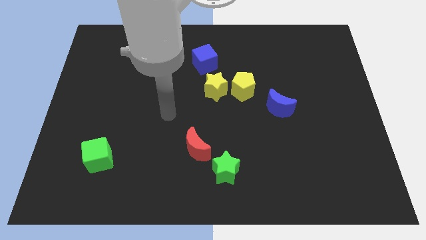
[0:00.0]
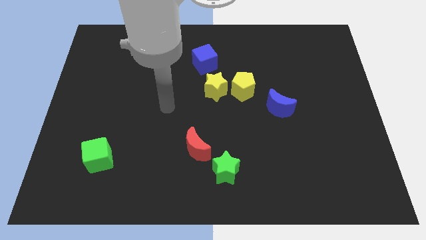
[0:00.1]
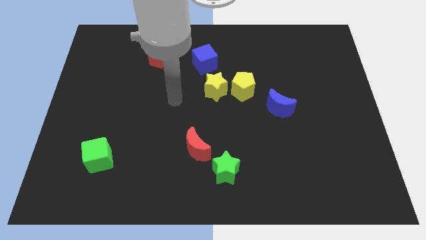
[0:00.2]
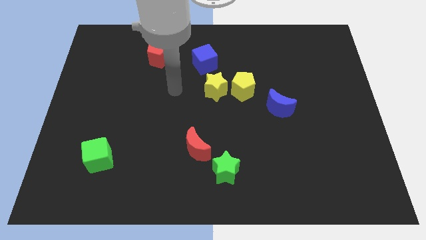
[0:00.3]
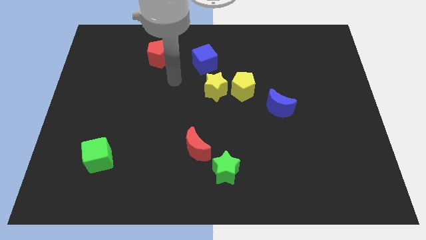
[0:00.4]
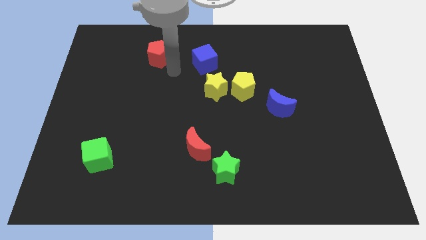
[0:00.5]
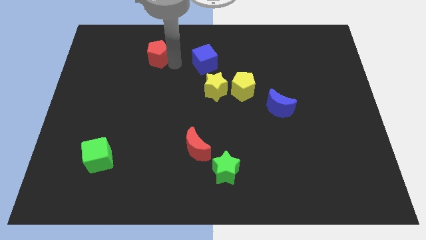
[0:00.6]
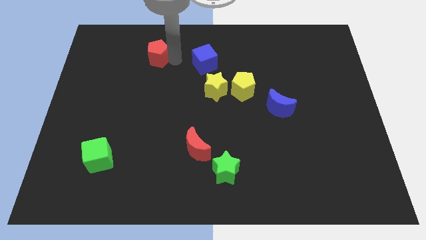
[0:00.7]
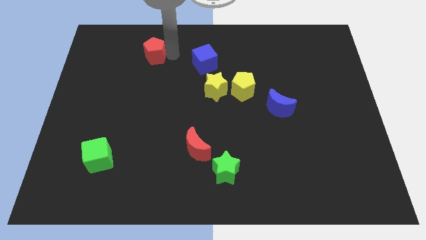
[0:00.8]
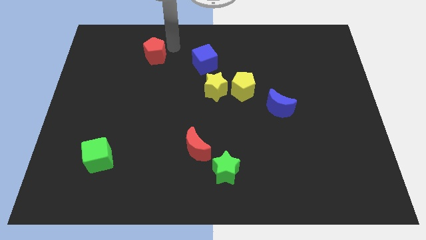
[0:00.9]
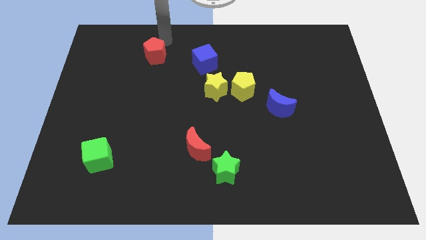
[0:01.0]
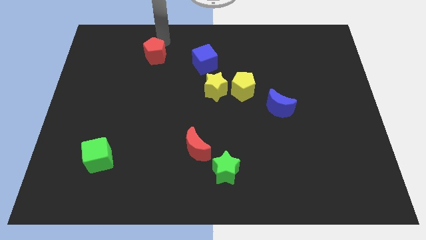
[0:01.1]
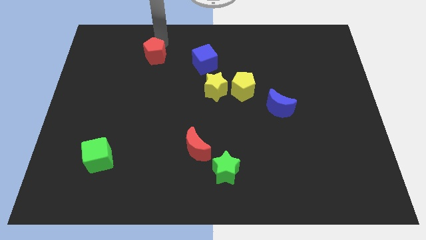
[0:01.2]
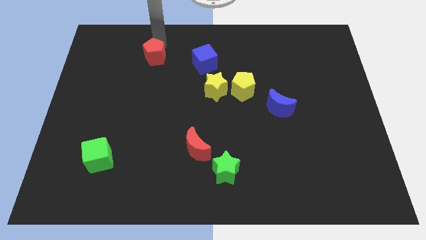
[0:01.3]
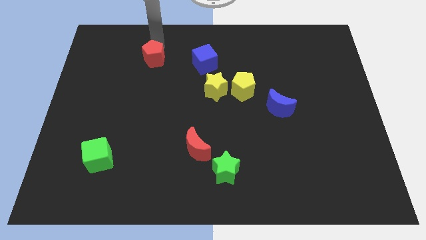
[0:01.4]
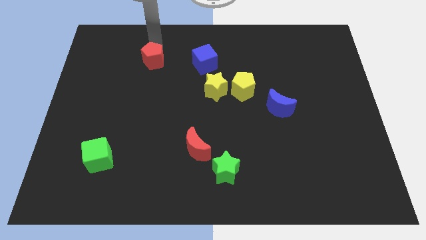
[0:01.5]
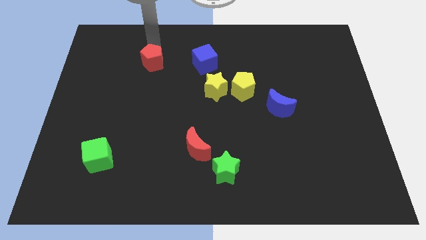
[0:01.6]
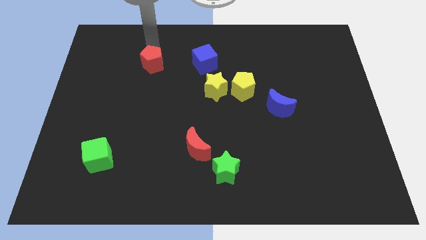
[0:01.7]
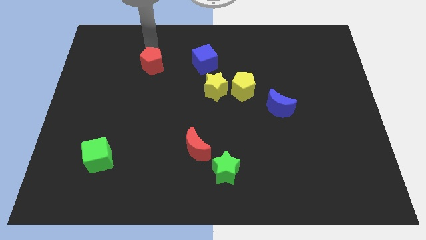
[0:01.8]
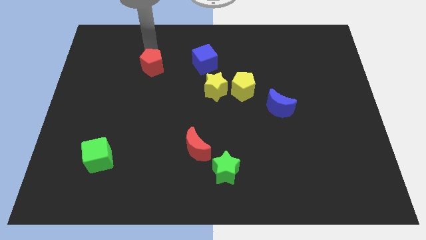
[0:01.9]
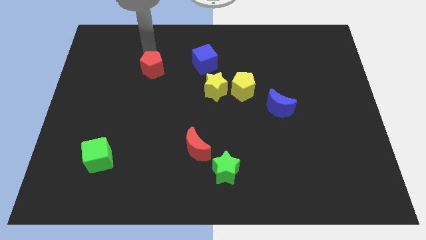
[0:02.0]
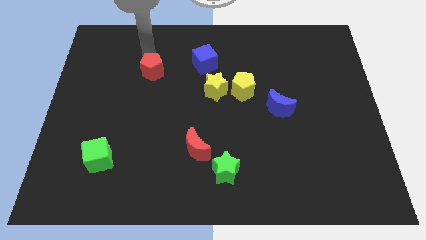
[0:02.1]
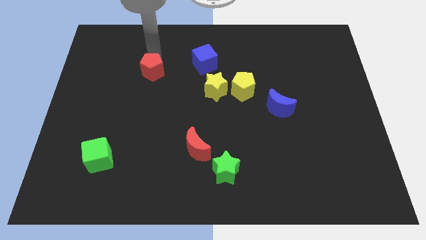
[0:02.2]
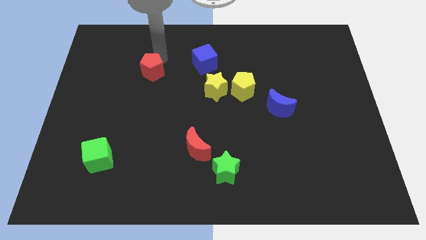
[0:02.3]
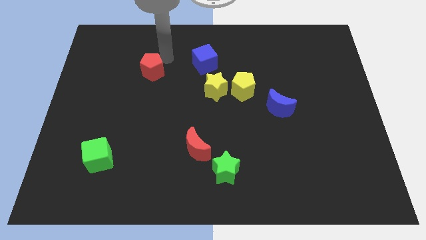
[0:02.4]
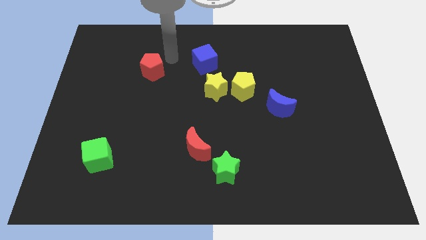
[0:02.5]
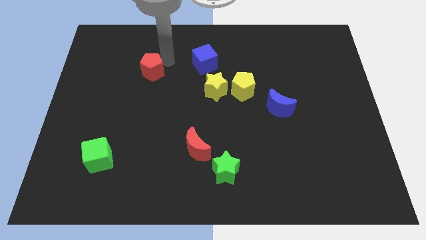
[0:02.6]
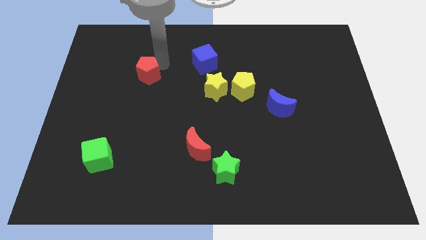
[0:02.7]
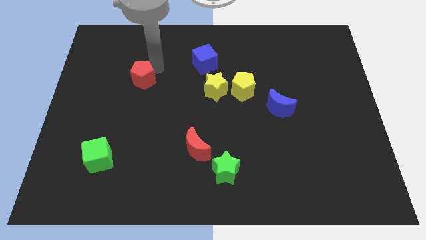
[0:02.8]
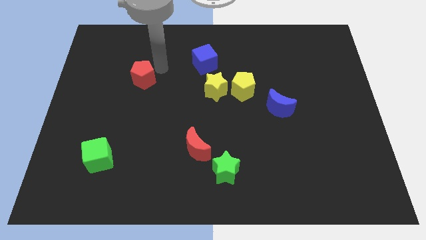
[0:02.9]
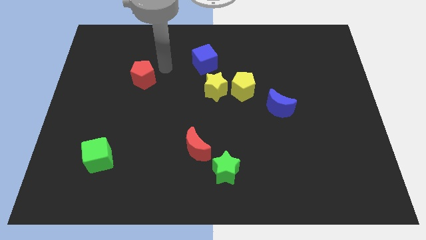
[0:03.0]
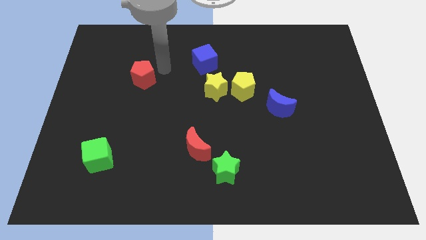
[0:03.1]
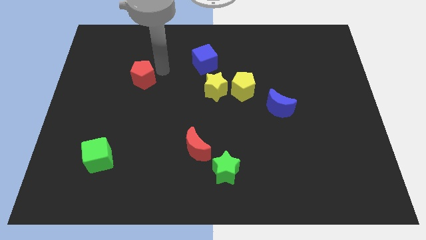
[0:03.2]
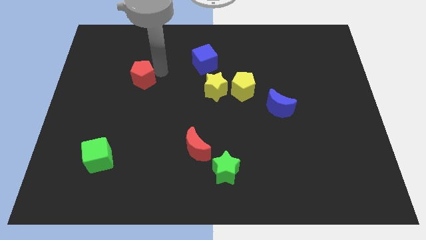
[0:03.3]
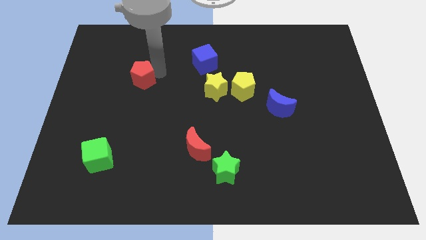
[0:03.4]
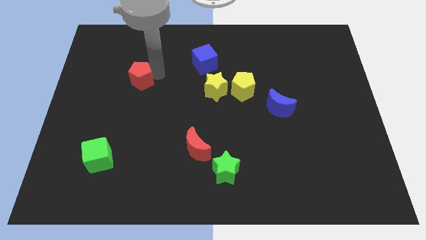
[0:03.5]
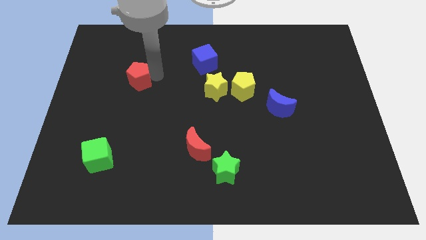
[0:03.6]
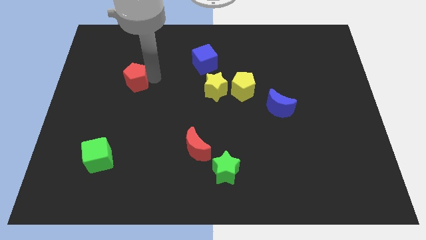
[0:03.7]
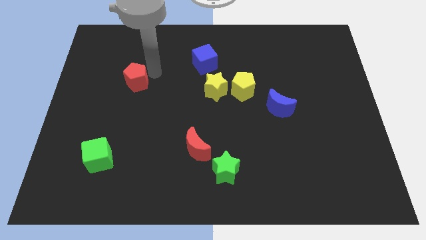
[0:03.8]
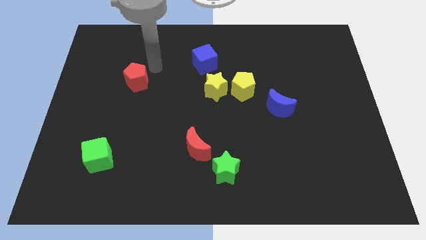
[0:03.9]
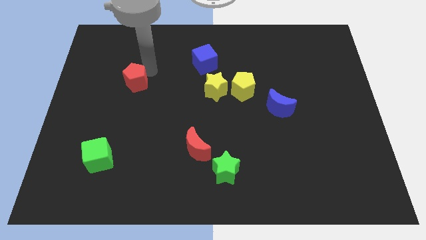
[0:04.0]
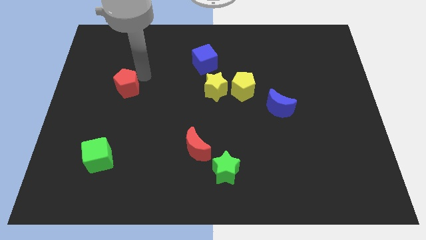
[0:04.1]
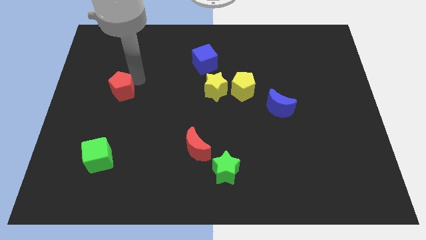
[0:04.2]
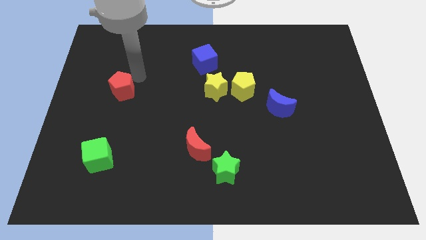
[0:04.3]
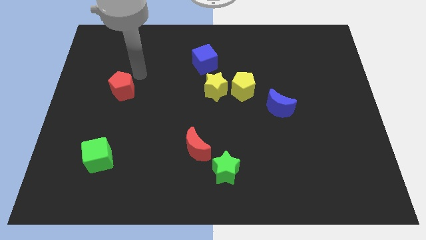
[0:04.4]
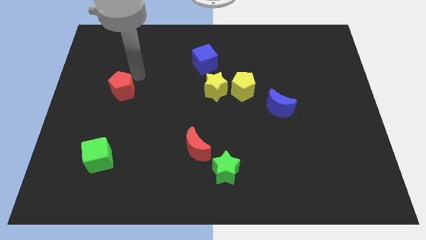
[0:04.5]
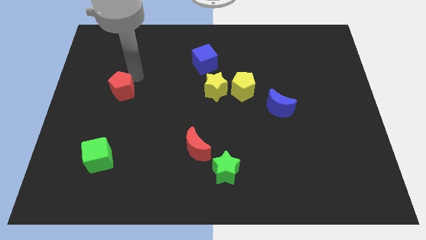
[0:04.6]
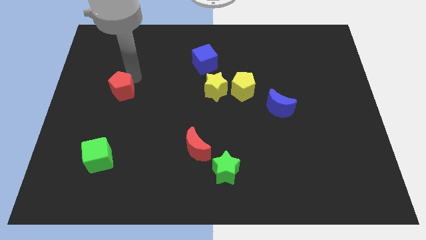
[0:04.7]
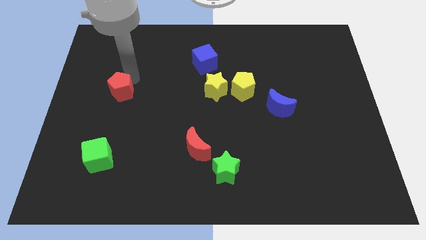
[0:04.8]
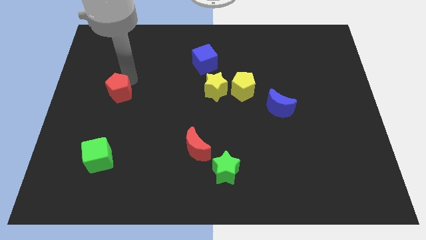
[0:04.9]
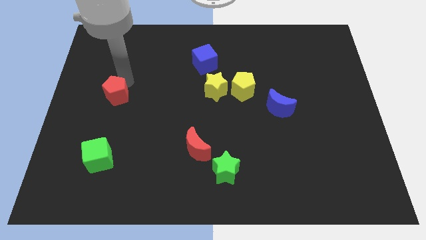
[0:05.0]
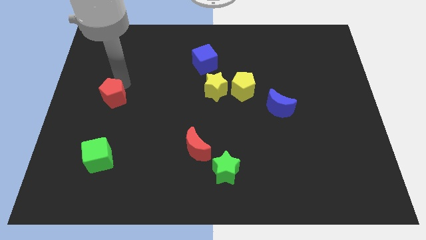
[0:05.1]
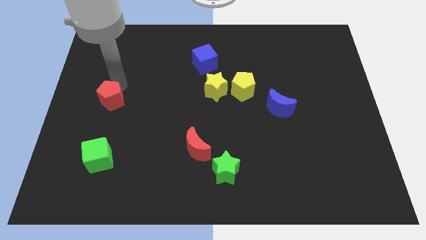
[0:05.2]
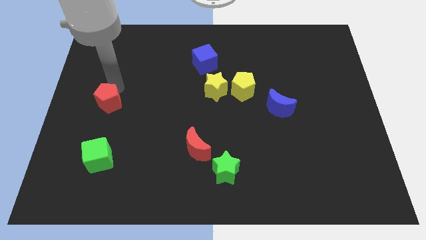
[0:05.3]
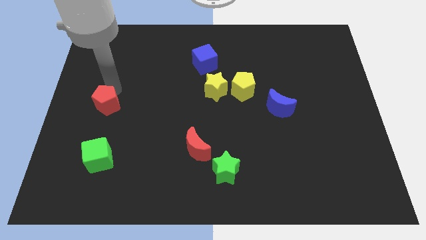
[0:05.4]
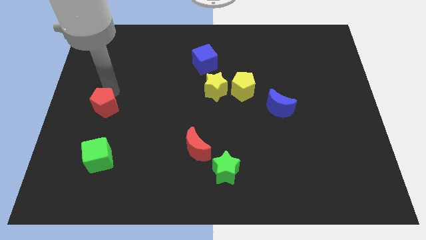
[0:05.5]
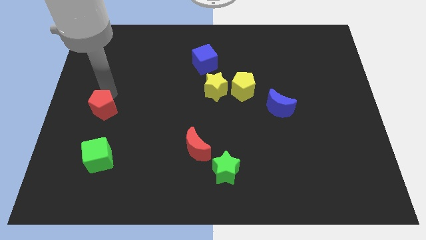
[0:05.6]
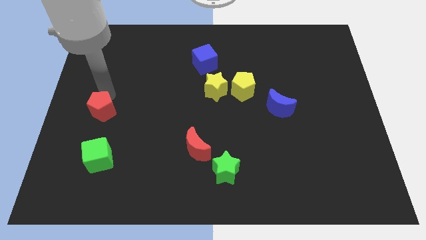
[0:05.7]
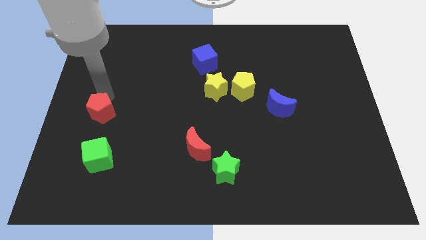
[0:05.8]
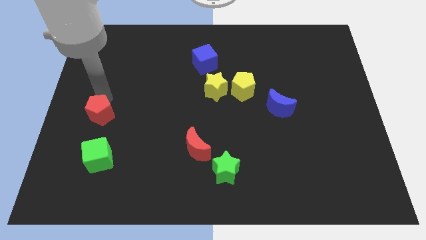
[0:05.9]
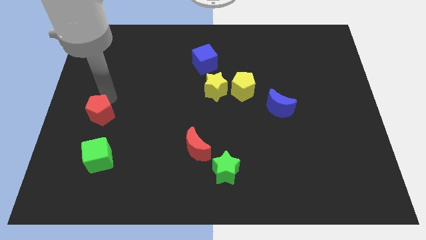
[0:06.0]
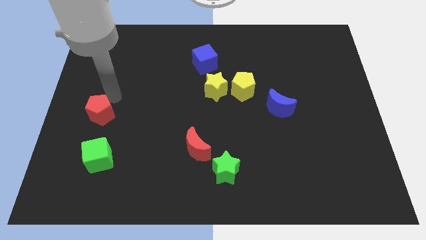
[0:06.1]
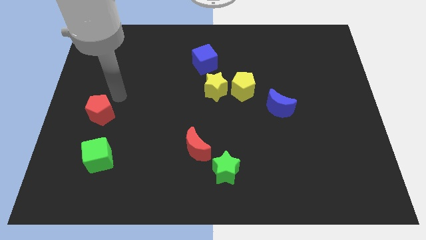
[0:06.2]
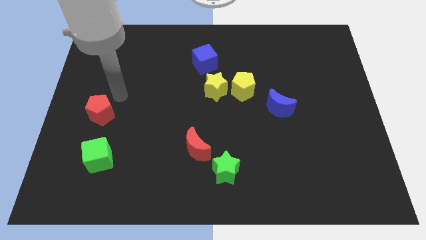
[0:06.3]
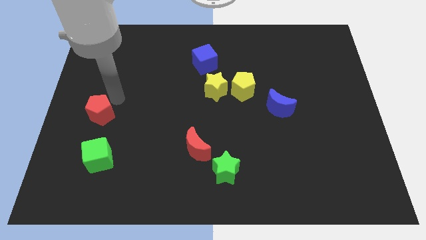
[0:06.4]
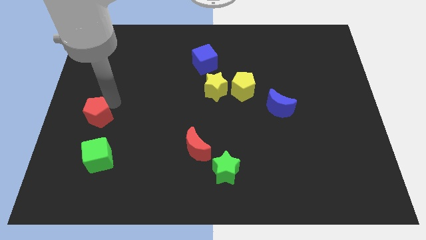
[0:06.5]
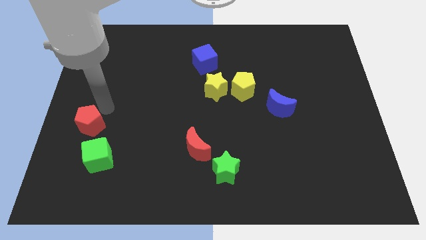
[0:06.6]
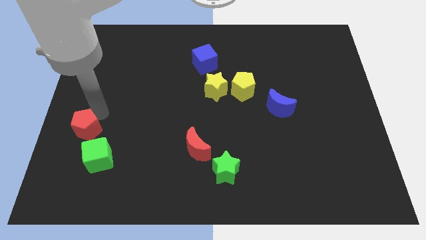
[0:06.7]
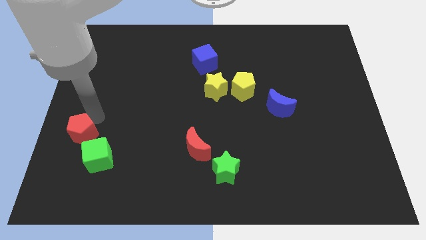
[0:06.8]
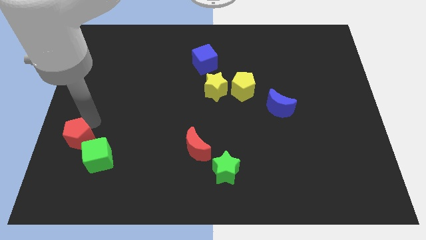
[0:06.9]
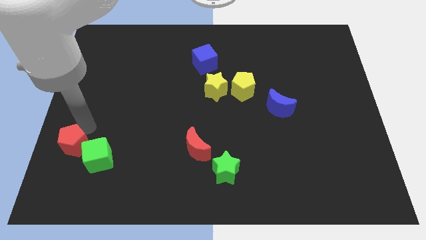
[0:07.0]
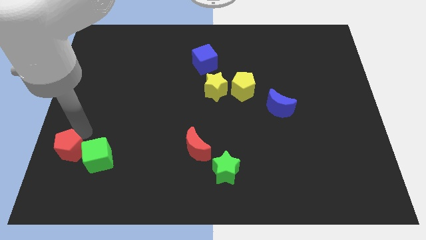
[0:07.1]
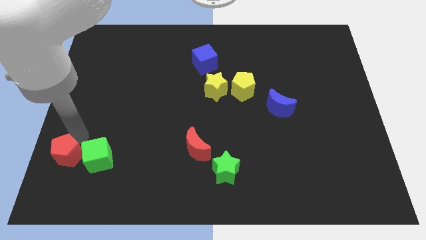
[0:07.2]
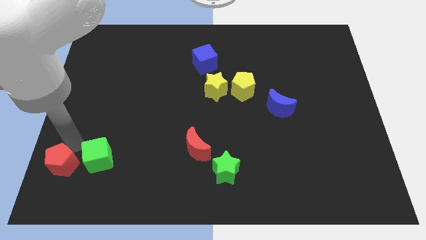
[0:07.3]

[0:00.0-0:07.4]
move the red pentagon to the bottom left
